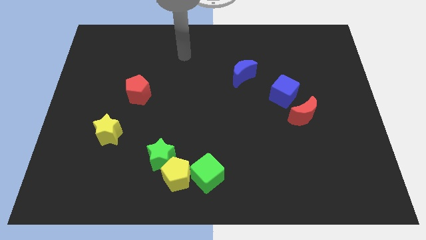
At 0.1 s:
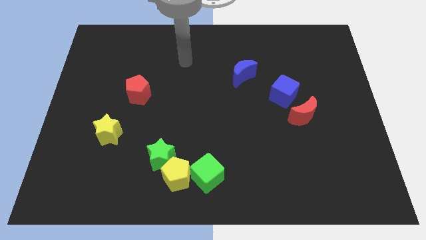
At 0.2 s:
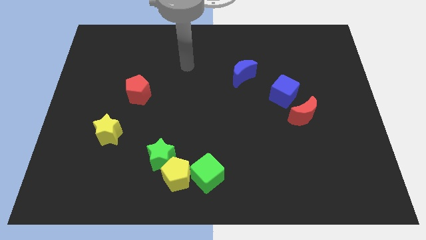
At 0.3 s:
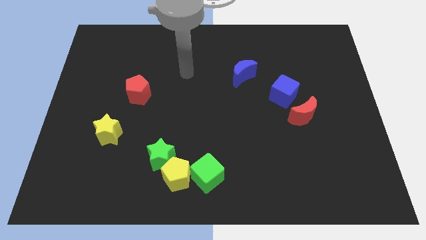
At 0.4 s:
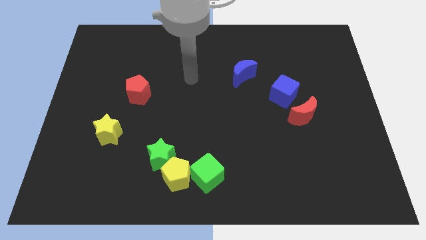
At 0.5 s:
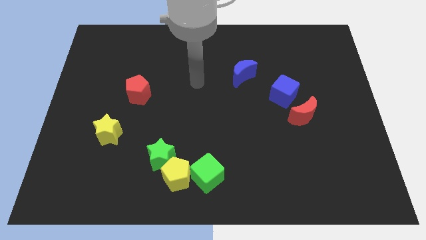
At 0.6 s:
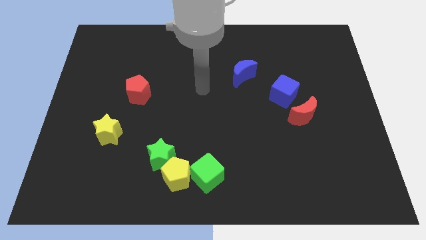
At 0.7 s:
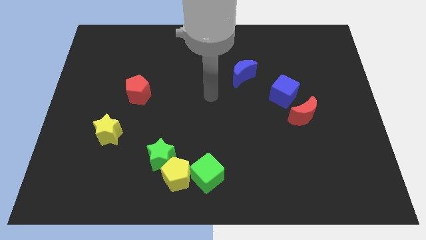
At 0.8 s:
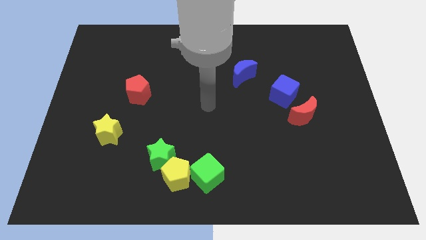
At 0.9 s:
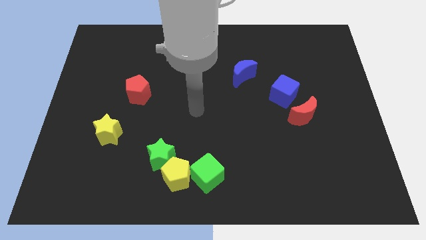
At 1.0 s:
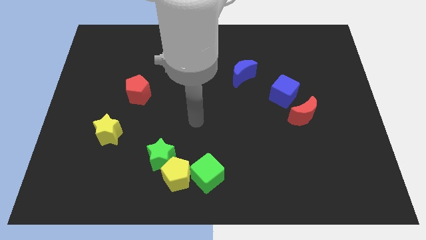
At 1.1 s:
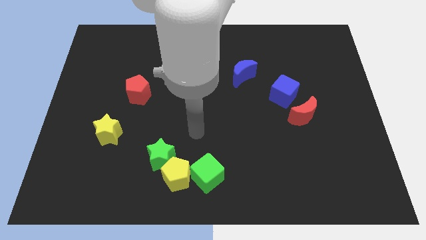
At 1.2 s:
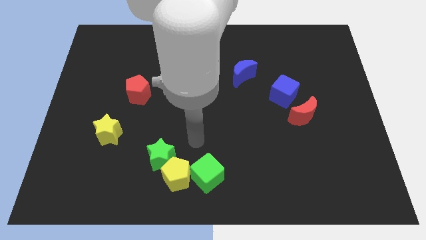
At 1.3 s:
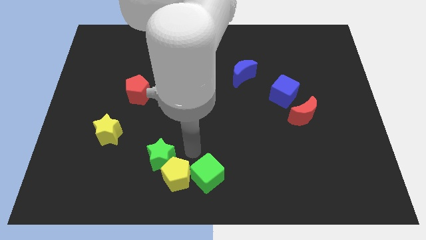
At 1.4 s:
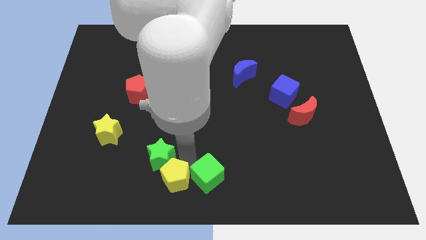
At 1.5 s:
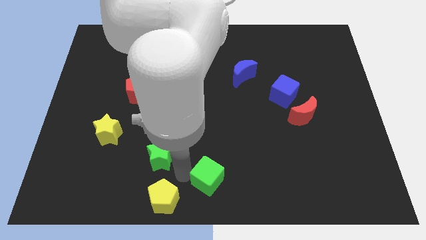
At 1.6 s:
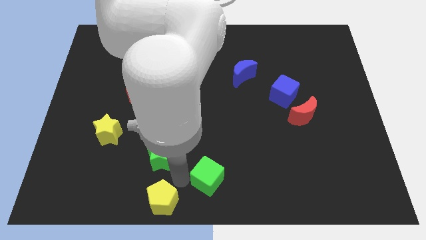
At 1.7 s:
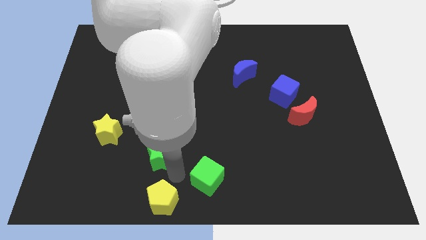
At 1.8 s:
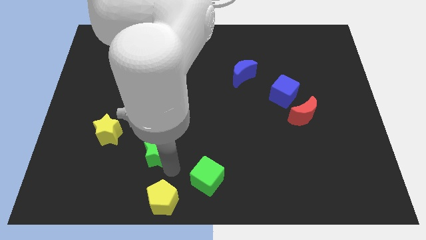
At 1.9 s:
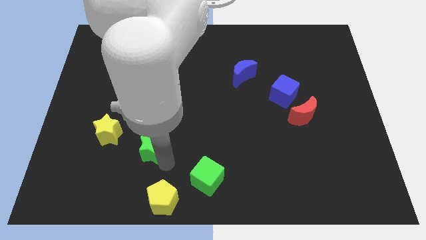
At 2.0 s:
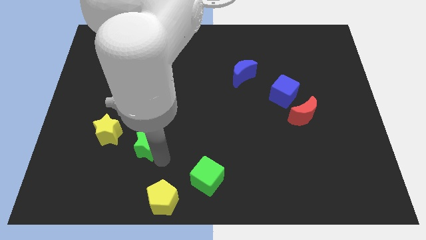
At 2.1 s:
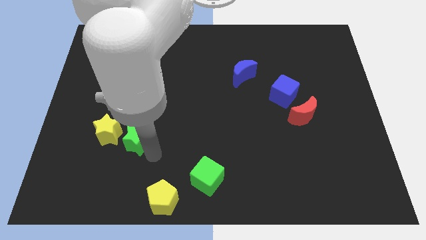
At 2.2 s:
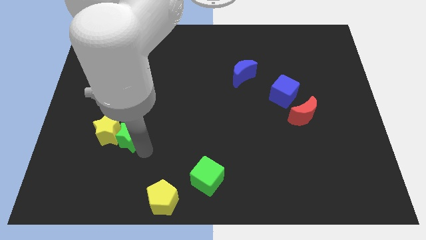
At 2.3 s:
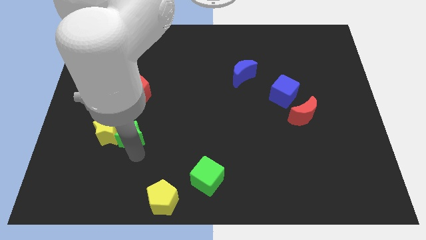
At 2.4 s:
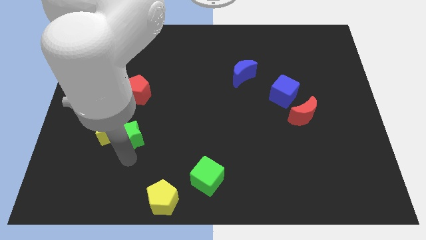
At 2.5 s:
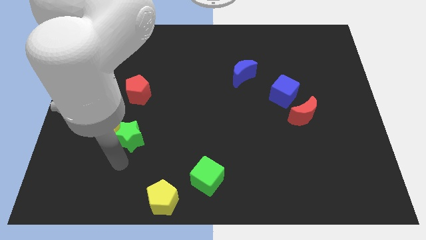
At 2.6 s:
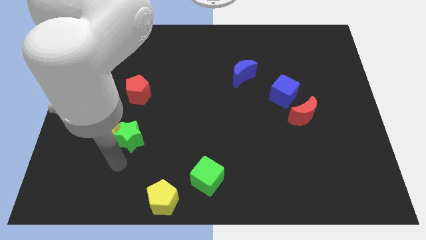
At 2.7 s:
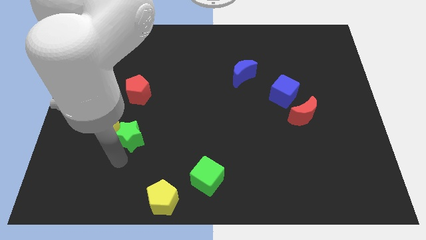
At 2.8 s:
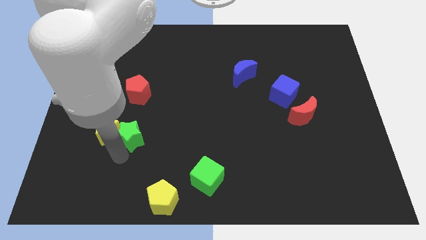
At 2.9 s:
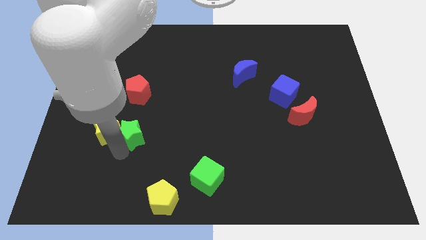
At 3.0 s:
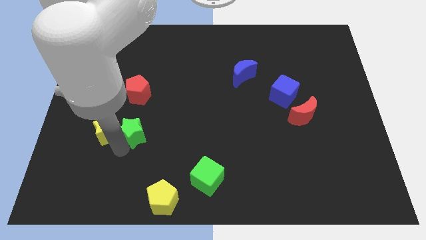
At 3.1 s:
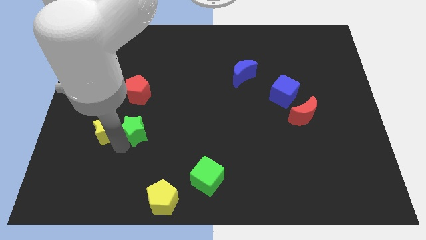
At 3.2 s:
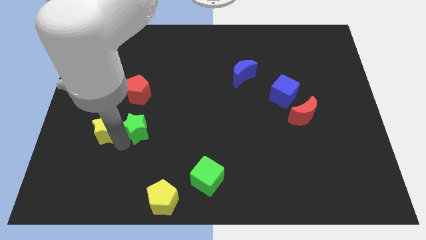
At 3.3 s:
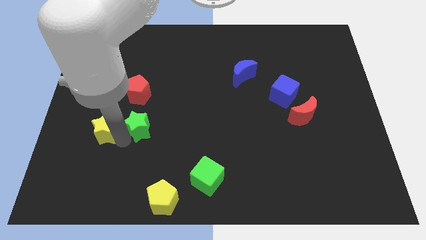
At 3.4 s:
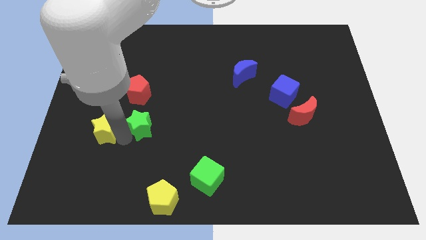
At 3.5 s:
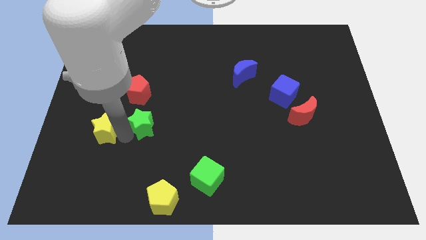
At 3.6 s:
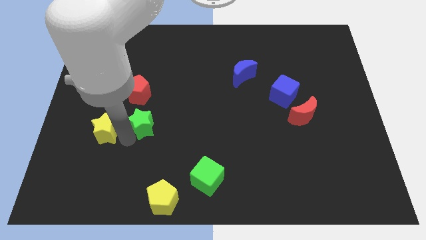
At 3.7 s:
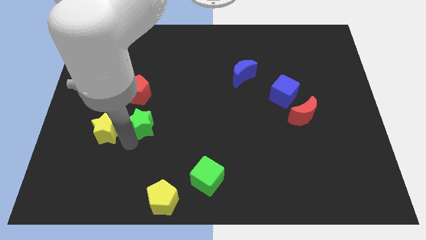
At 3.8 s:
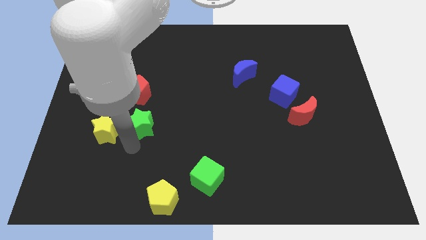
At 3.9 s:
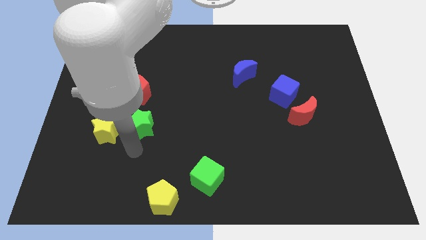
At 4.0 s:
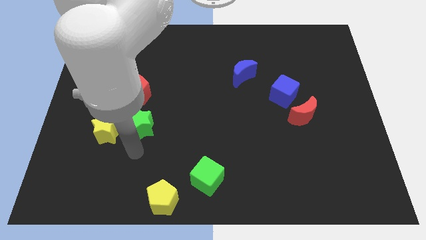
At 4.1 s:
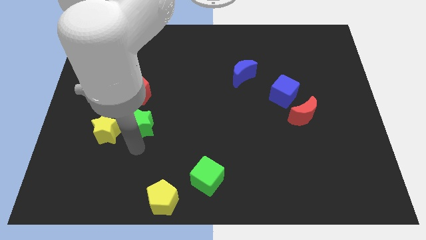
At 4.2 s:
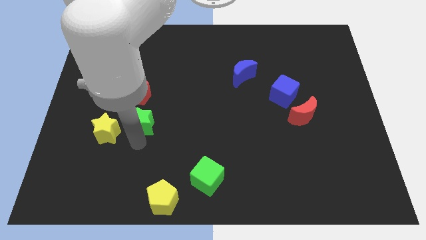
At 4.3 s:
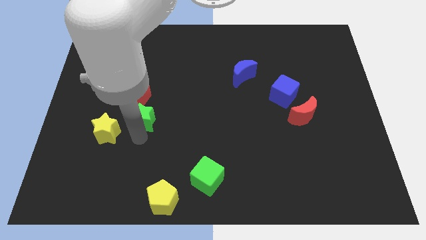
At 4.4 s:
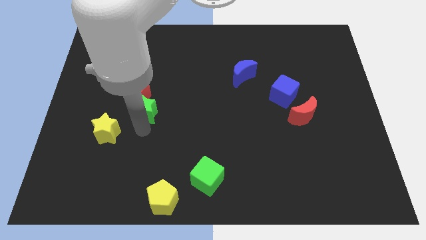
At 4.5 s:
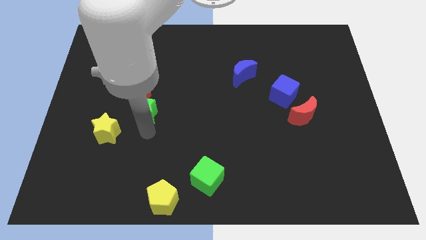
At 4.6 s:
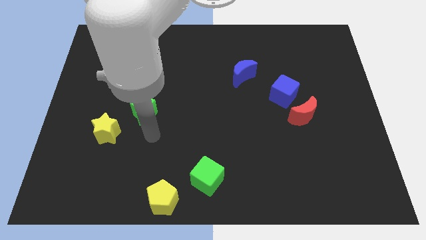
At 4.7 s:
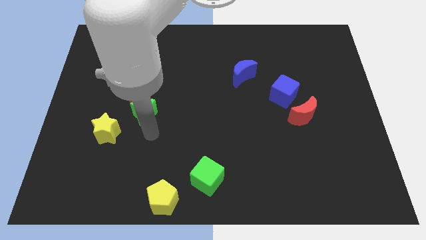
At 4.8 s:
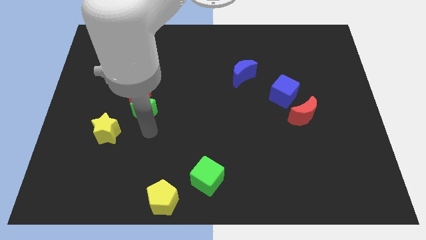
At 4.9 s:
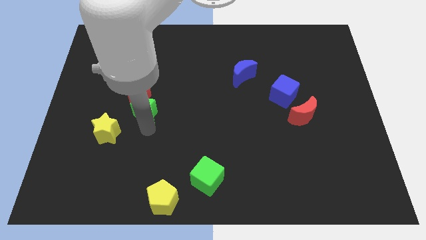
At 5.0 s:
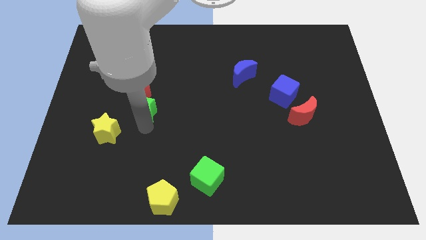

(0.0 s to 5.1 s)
move the green star close to the red pentagon

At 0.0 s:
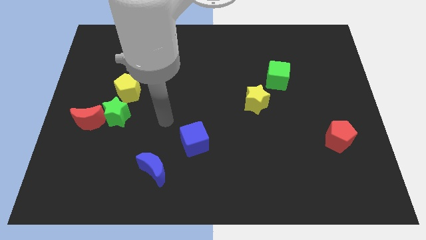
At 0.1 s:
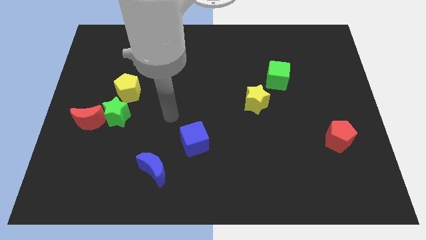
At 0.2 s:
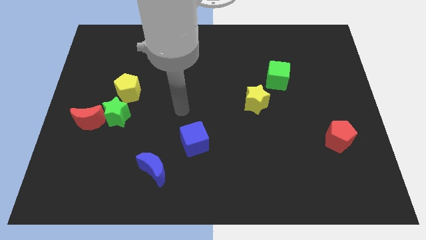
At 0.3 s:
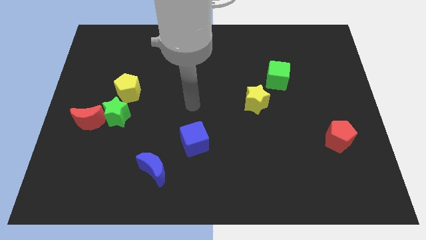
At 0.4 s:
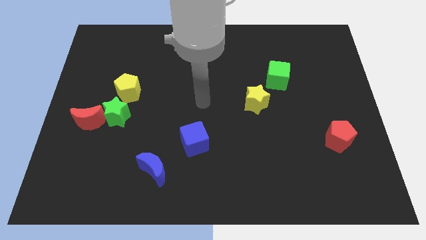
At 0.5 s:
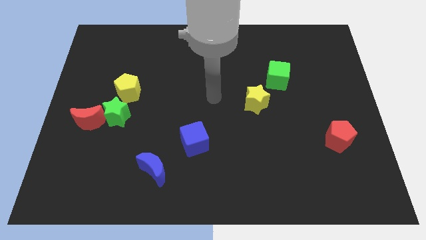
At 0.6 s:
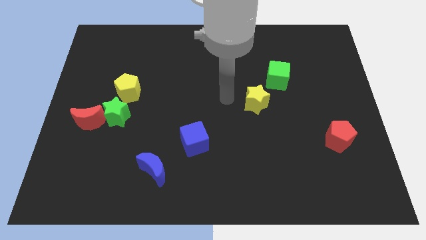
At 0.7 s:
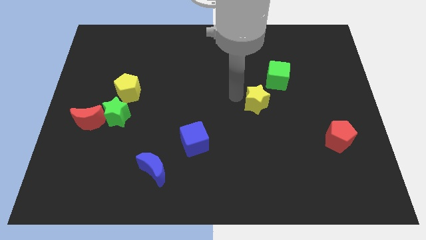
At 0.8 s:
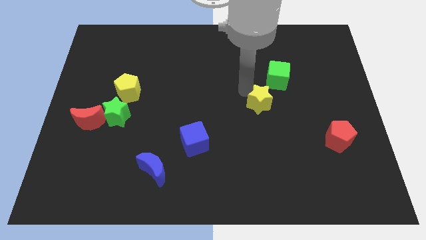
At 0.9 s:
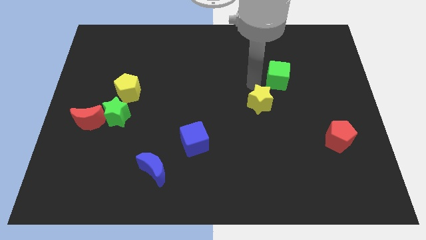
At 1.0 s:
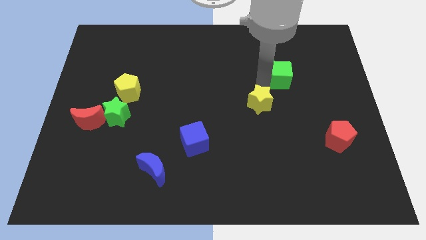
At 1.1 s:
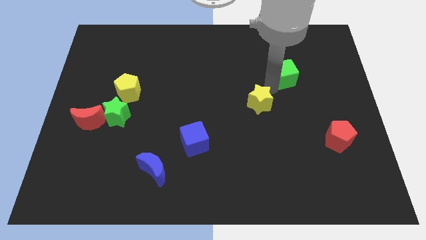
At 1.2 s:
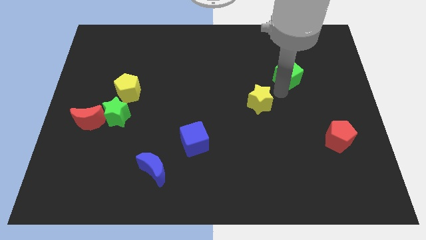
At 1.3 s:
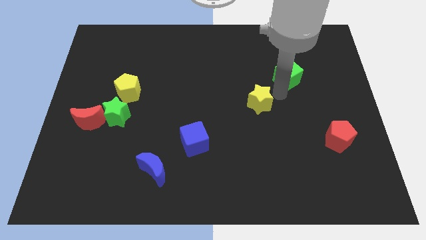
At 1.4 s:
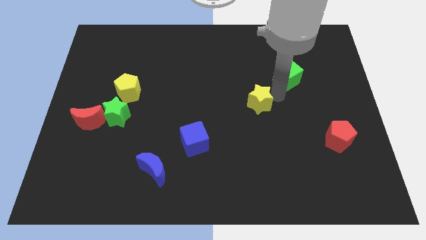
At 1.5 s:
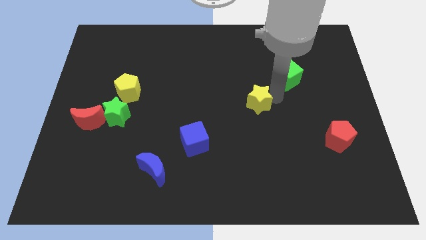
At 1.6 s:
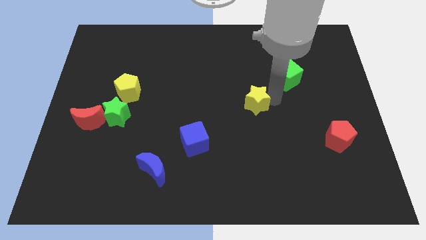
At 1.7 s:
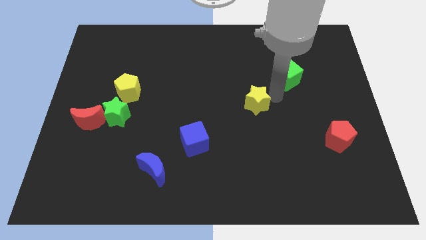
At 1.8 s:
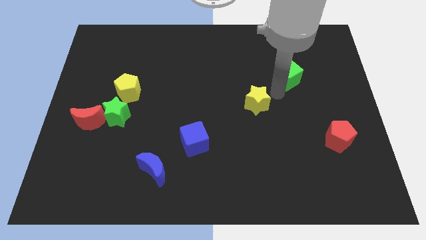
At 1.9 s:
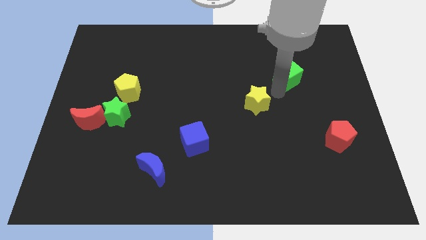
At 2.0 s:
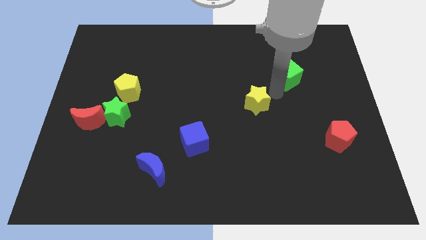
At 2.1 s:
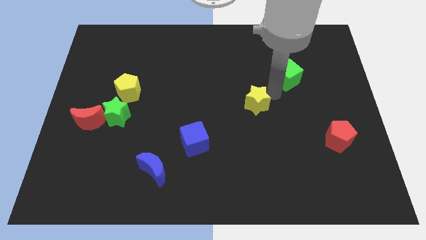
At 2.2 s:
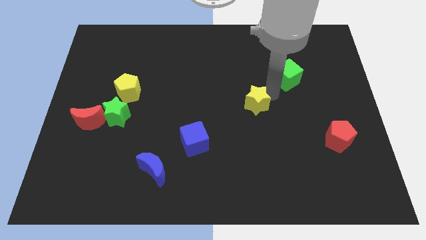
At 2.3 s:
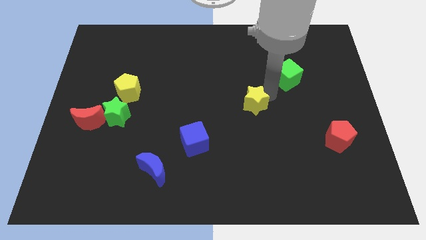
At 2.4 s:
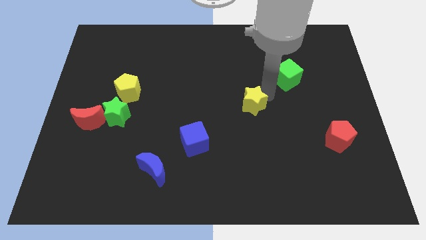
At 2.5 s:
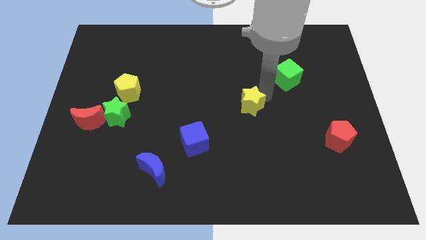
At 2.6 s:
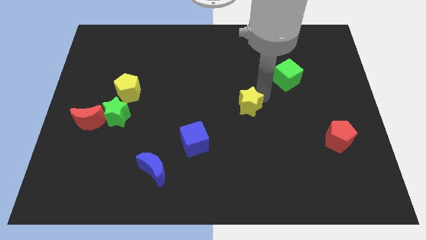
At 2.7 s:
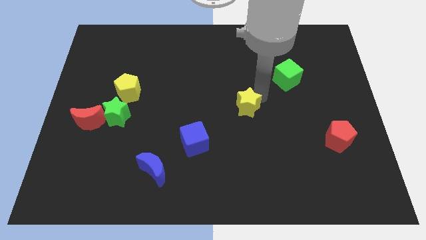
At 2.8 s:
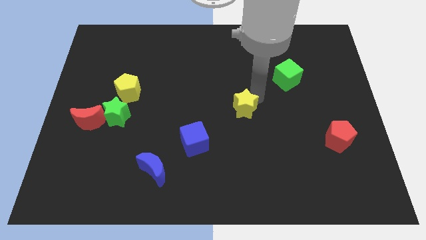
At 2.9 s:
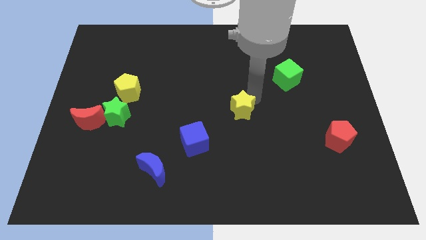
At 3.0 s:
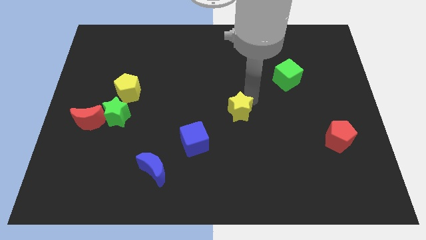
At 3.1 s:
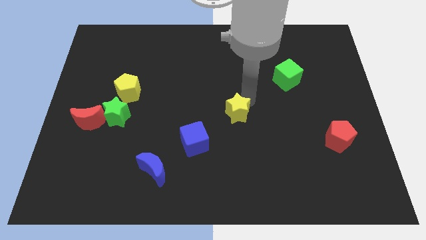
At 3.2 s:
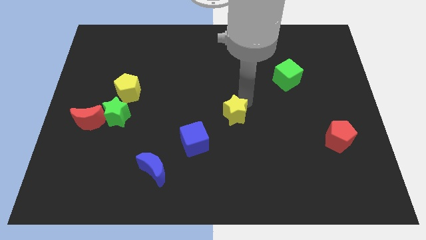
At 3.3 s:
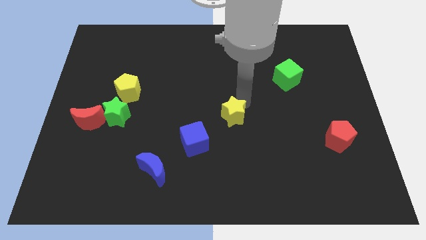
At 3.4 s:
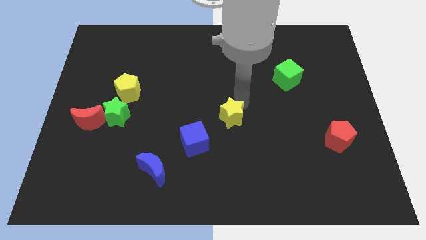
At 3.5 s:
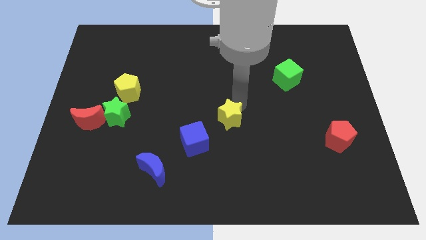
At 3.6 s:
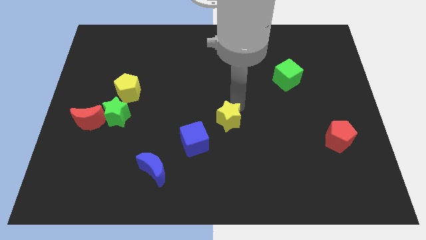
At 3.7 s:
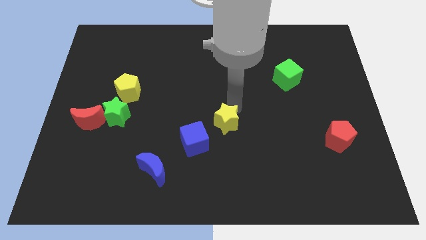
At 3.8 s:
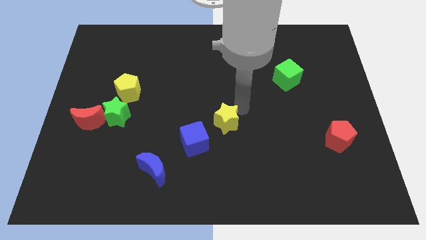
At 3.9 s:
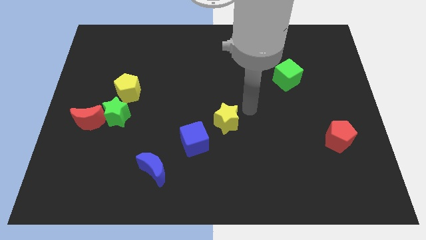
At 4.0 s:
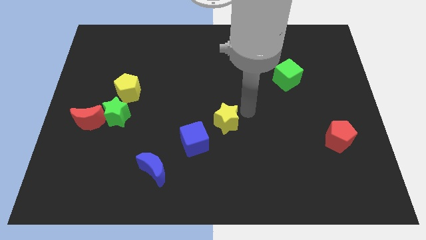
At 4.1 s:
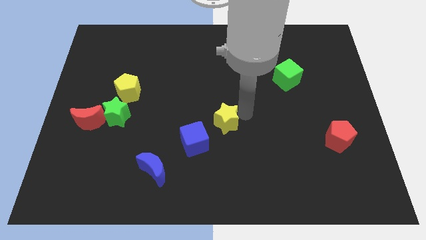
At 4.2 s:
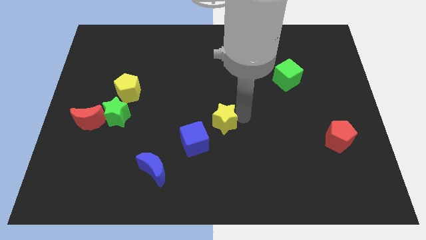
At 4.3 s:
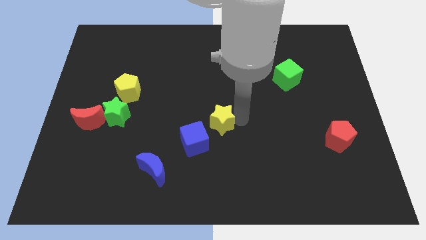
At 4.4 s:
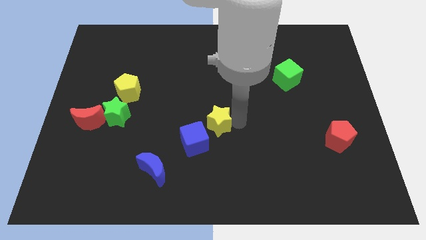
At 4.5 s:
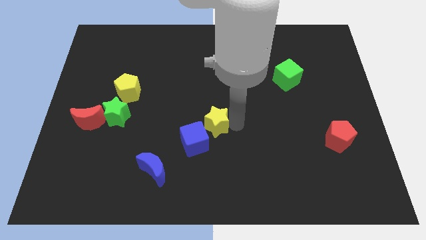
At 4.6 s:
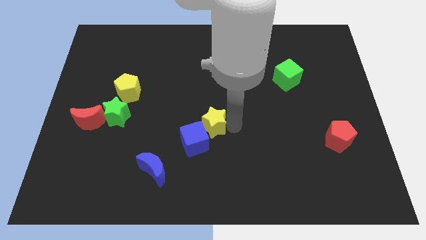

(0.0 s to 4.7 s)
put the yellow star towards the blue cube
